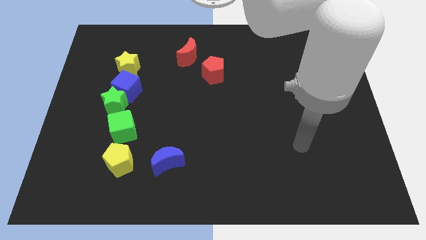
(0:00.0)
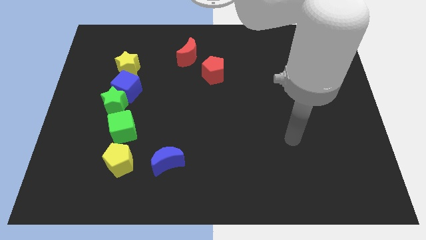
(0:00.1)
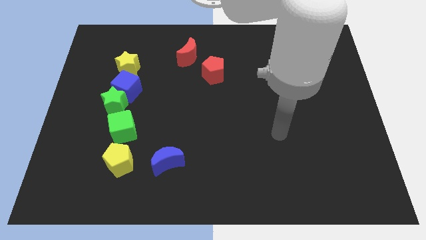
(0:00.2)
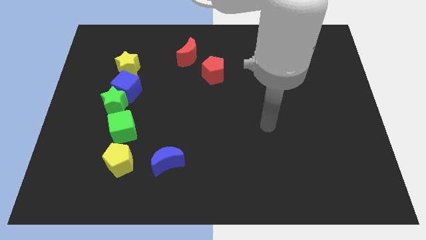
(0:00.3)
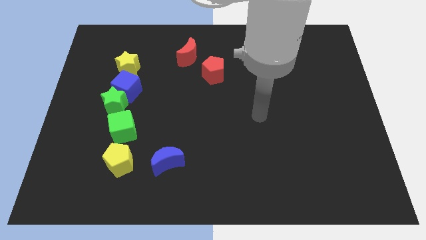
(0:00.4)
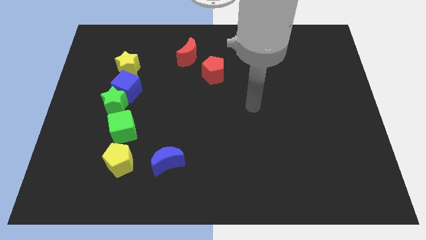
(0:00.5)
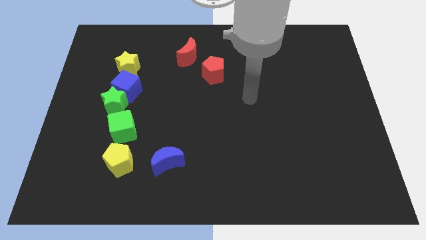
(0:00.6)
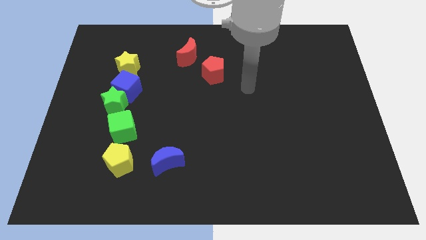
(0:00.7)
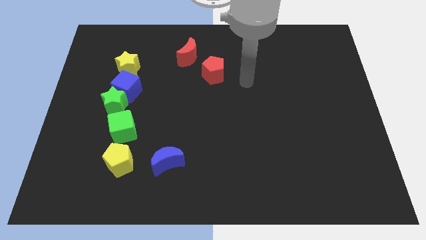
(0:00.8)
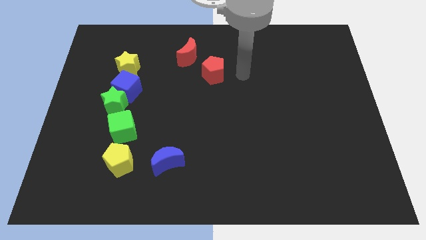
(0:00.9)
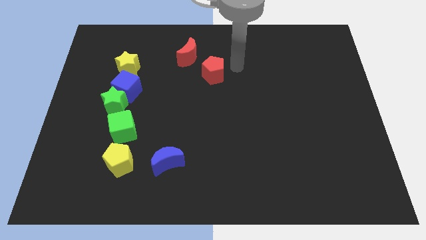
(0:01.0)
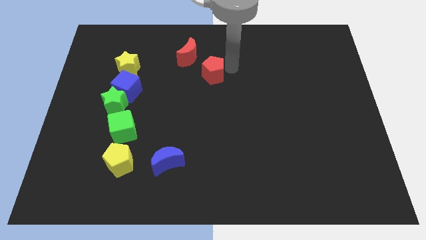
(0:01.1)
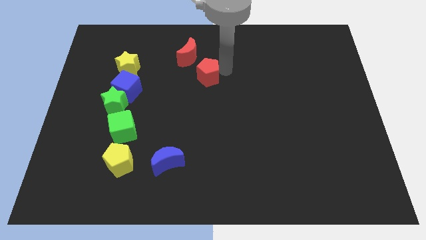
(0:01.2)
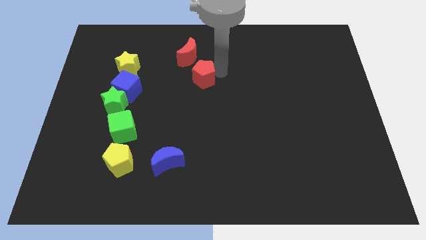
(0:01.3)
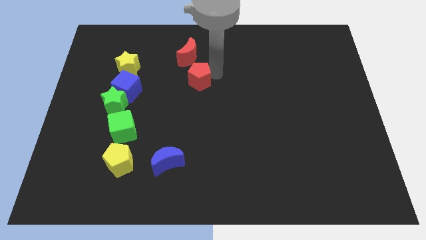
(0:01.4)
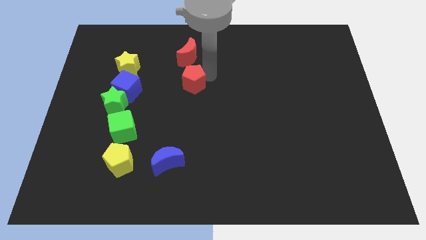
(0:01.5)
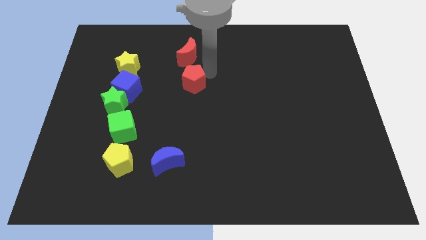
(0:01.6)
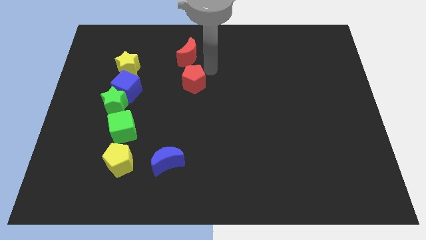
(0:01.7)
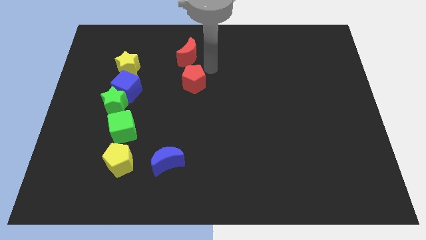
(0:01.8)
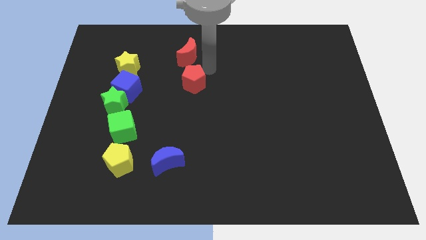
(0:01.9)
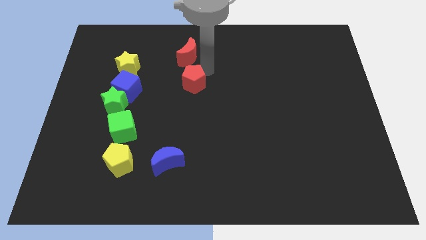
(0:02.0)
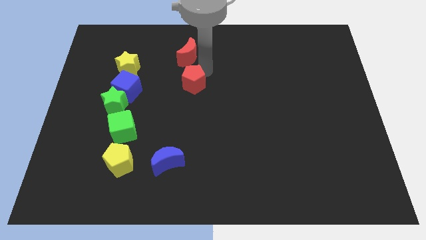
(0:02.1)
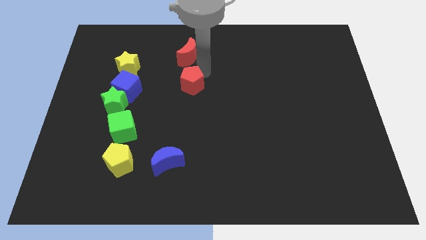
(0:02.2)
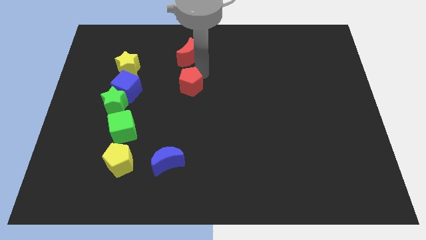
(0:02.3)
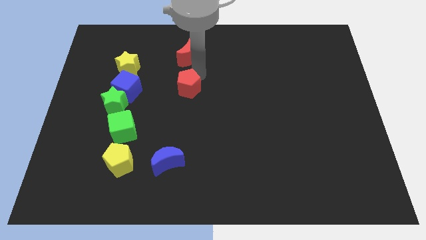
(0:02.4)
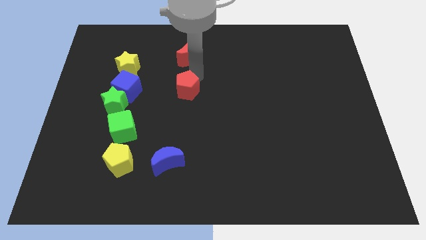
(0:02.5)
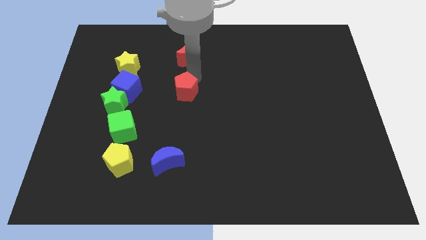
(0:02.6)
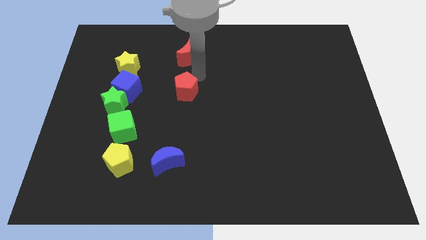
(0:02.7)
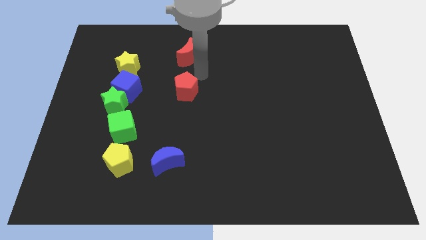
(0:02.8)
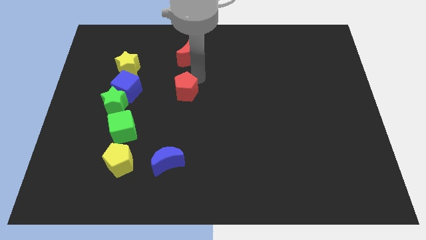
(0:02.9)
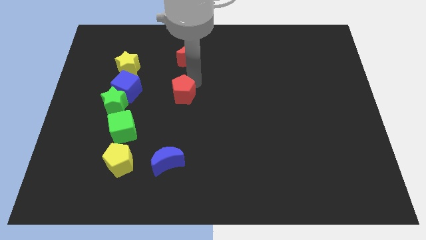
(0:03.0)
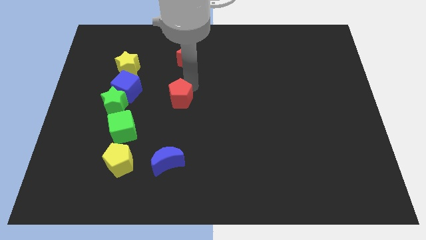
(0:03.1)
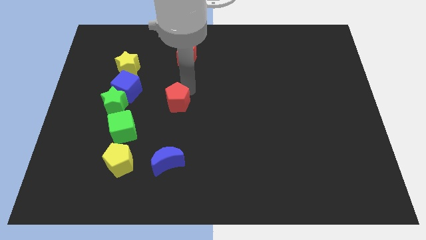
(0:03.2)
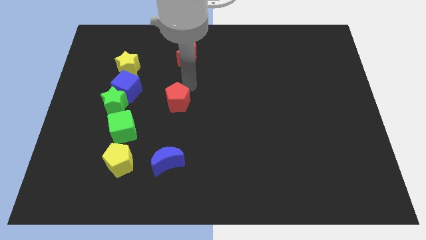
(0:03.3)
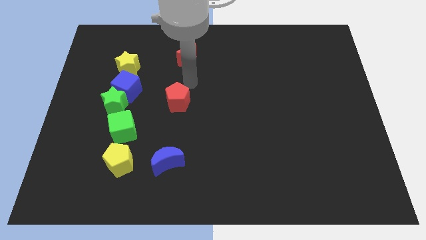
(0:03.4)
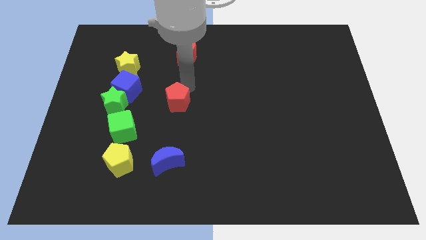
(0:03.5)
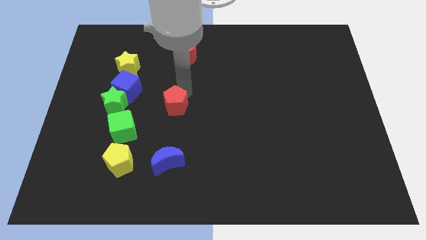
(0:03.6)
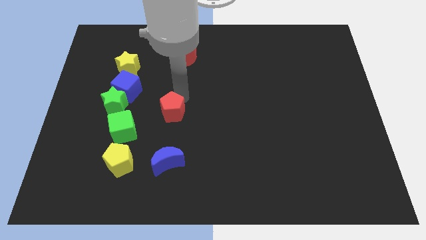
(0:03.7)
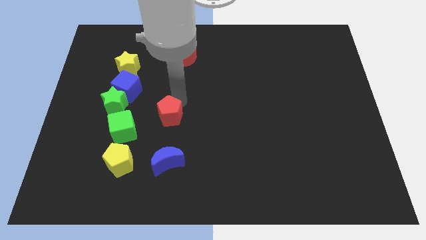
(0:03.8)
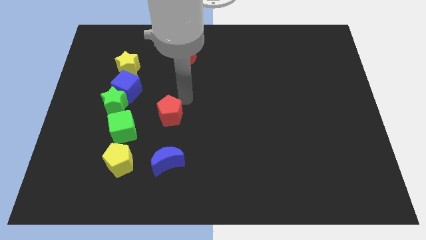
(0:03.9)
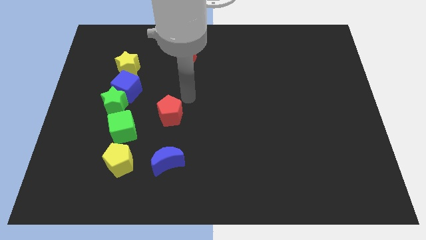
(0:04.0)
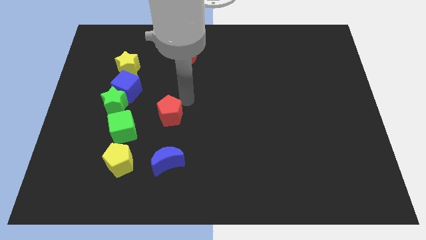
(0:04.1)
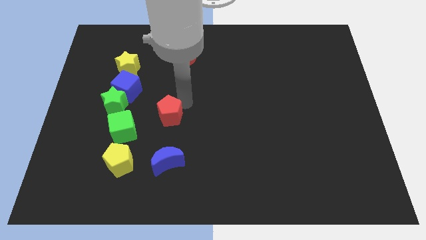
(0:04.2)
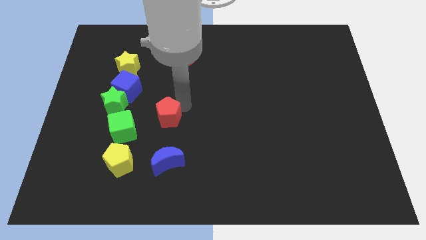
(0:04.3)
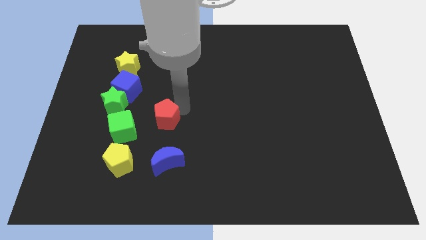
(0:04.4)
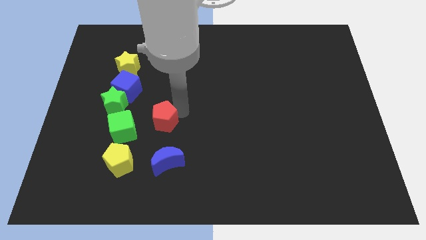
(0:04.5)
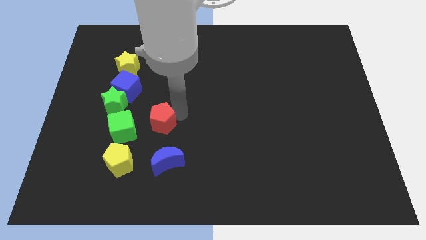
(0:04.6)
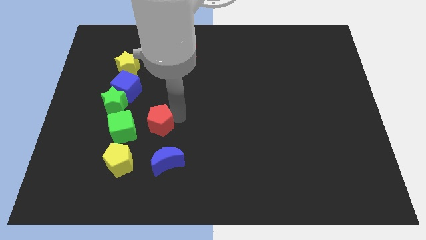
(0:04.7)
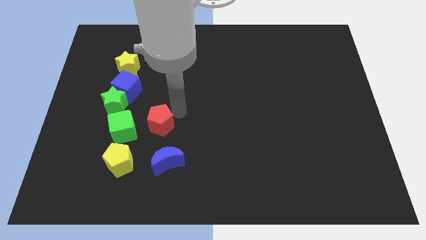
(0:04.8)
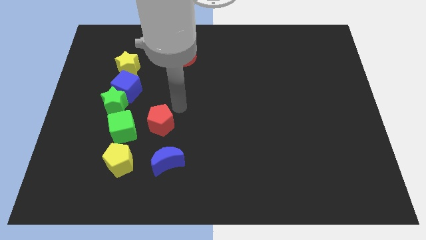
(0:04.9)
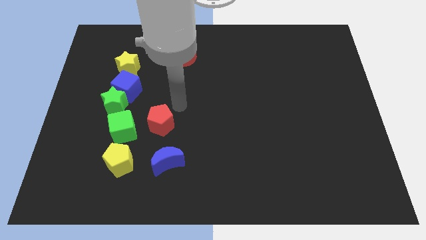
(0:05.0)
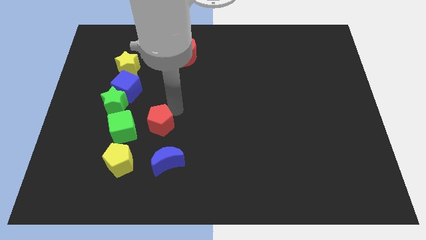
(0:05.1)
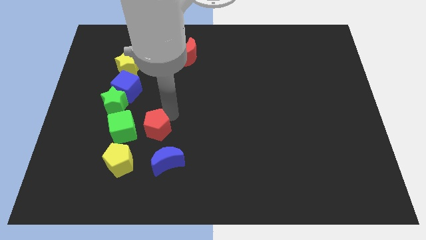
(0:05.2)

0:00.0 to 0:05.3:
slide the red pentagon to the top left of the blue moon

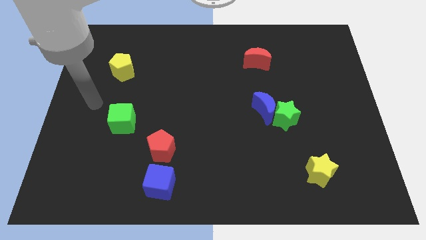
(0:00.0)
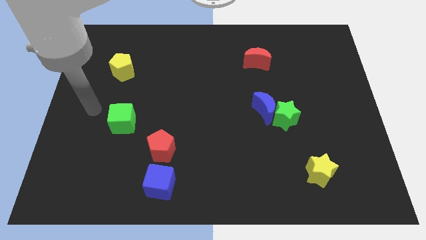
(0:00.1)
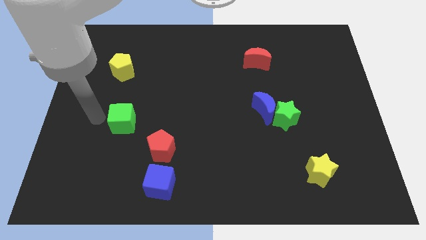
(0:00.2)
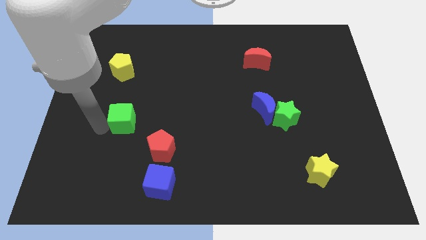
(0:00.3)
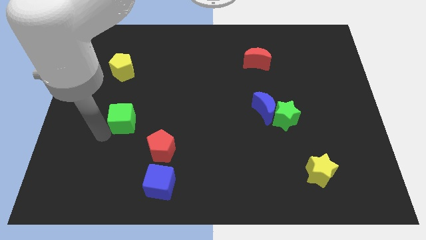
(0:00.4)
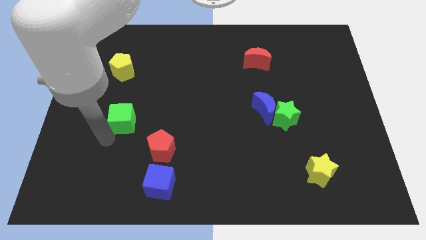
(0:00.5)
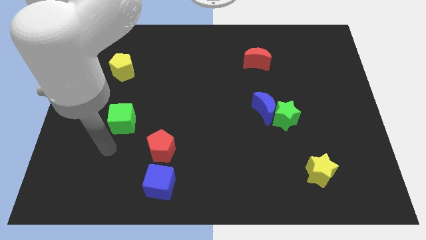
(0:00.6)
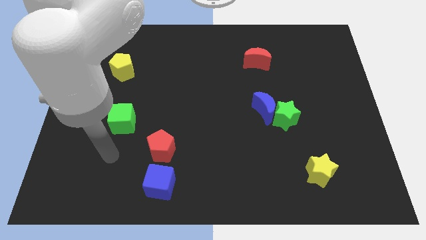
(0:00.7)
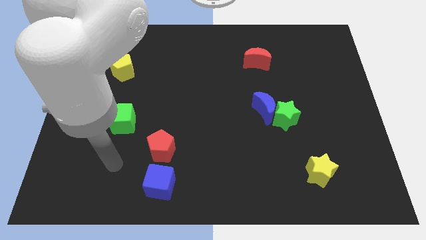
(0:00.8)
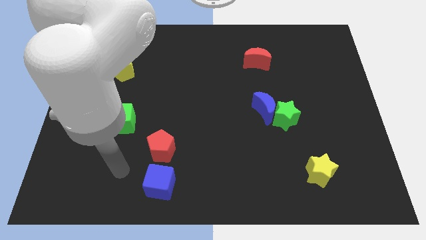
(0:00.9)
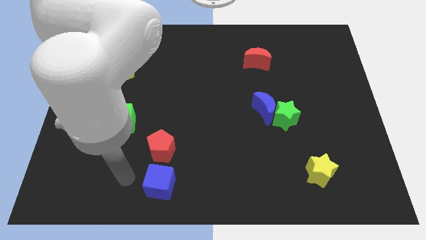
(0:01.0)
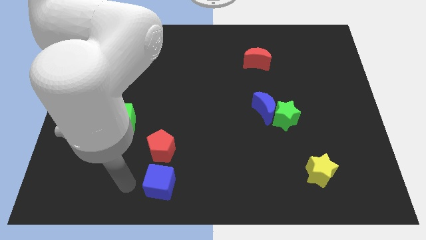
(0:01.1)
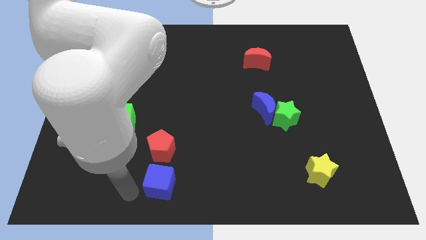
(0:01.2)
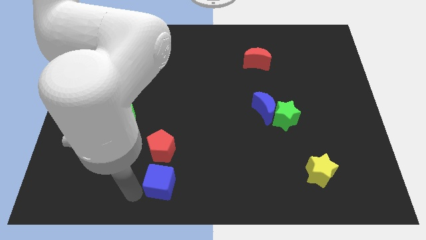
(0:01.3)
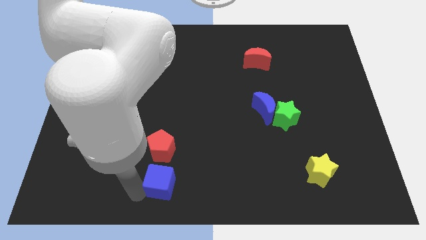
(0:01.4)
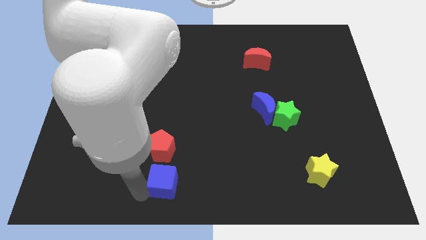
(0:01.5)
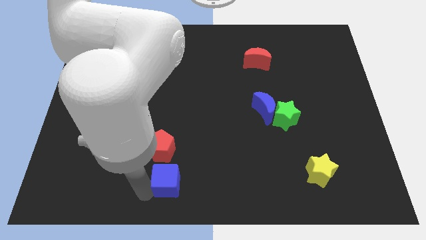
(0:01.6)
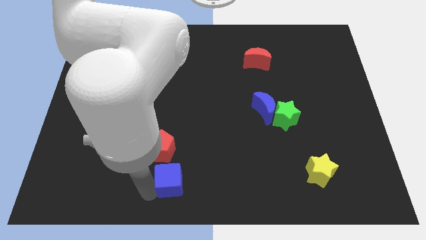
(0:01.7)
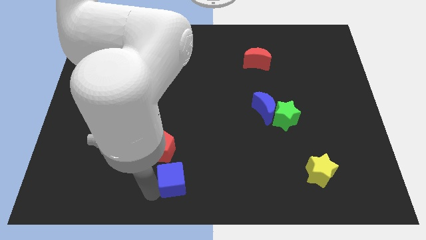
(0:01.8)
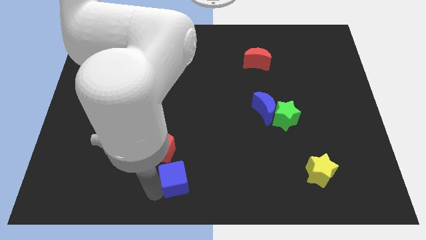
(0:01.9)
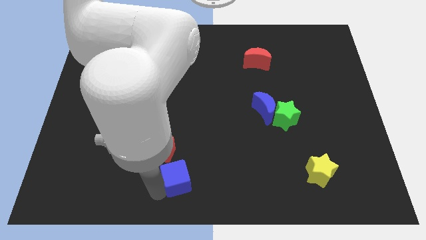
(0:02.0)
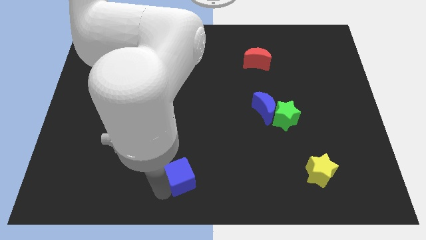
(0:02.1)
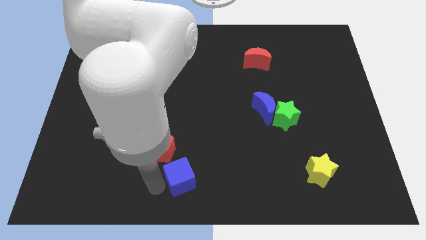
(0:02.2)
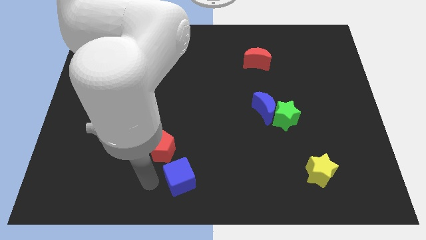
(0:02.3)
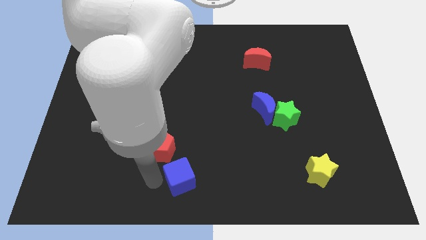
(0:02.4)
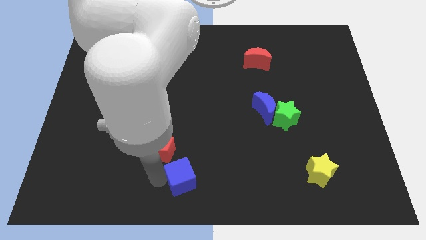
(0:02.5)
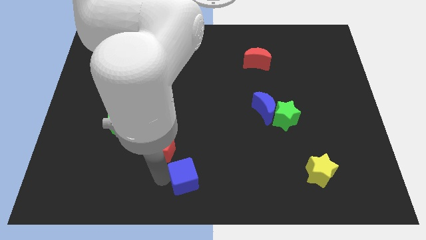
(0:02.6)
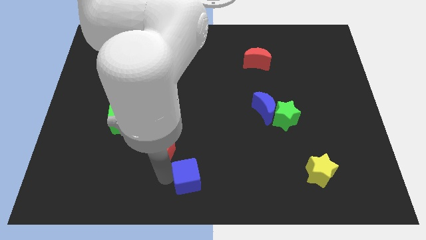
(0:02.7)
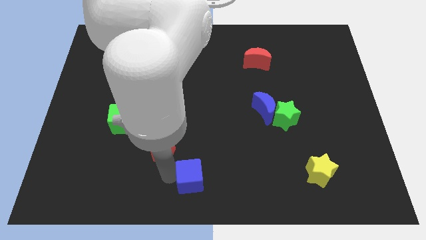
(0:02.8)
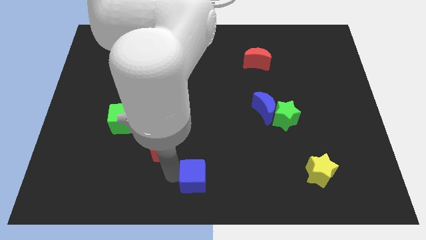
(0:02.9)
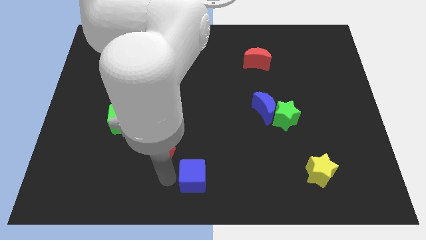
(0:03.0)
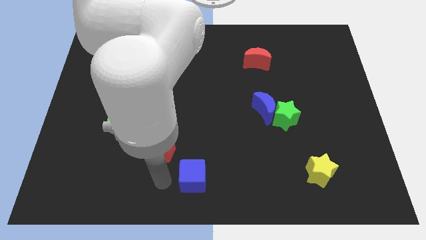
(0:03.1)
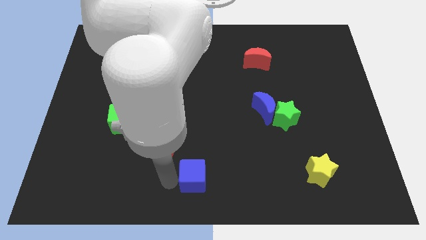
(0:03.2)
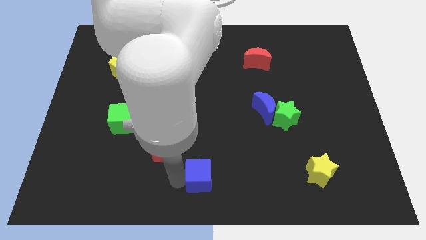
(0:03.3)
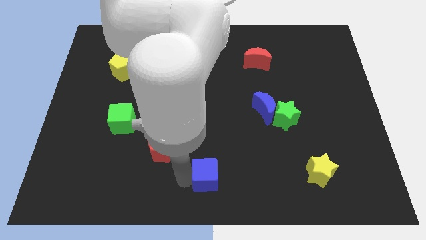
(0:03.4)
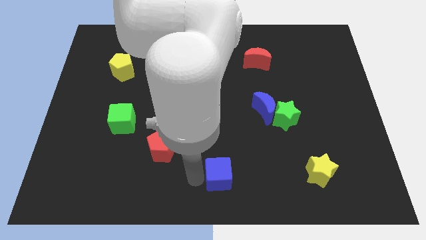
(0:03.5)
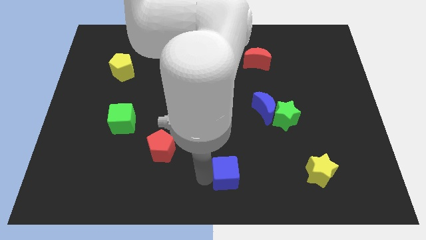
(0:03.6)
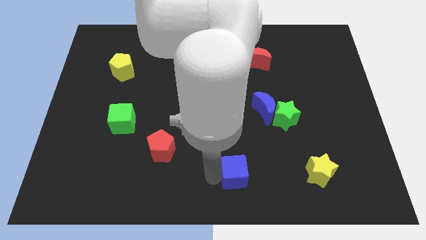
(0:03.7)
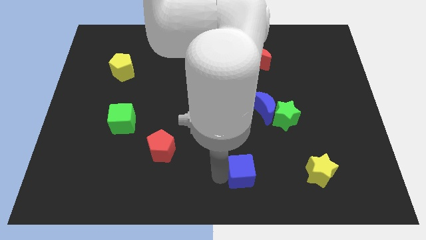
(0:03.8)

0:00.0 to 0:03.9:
put the blue cube left of the yellow star
